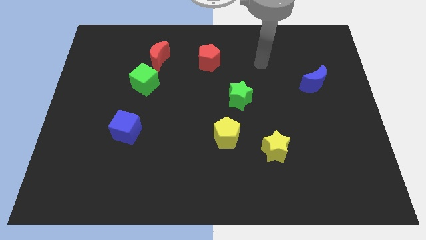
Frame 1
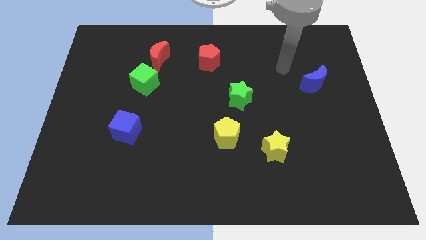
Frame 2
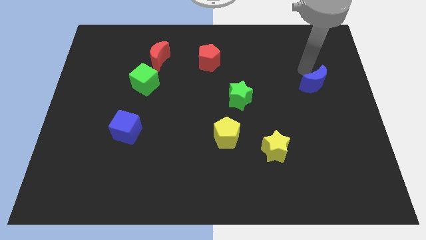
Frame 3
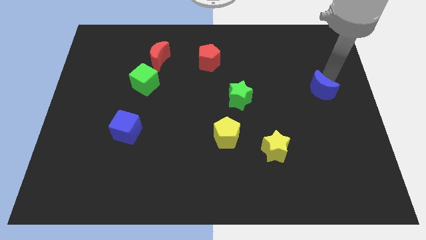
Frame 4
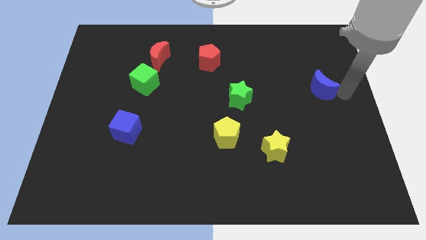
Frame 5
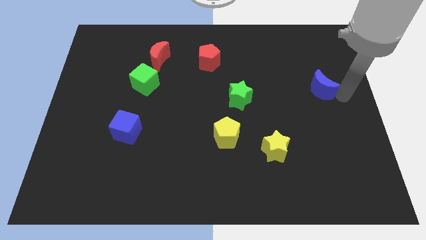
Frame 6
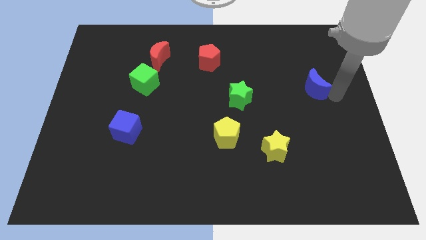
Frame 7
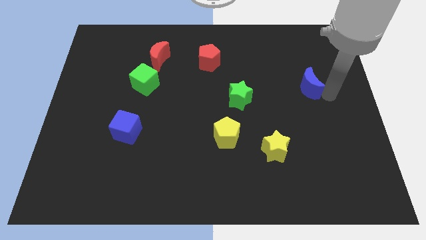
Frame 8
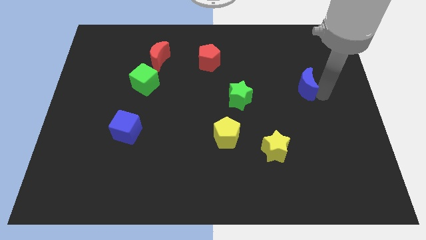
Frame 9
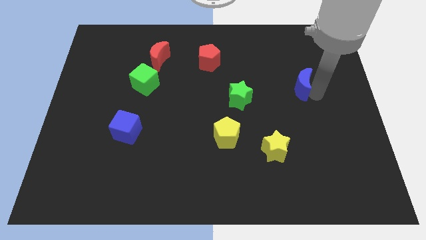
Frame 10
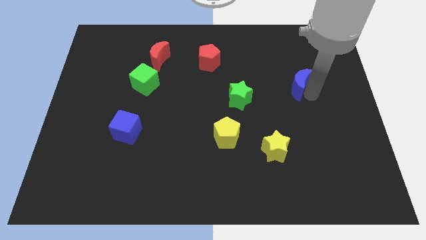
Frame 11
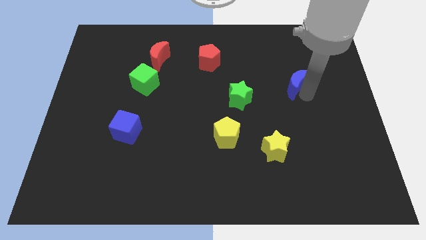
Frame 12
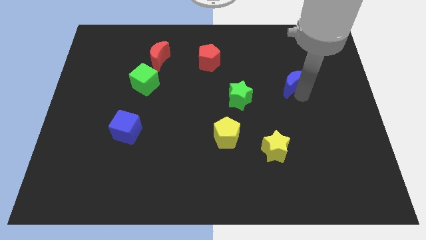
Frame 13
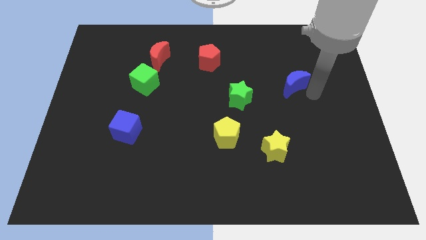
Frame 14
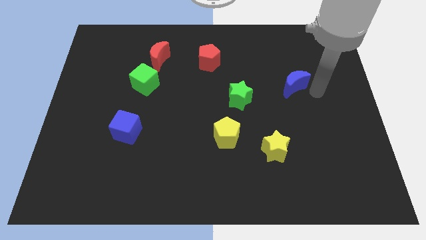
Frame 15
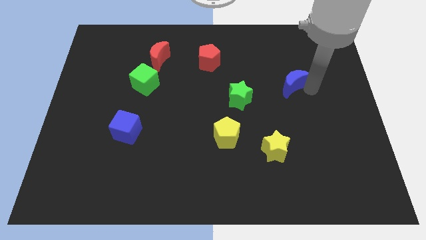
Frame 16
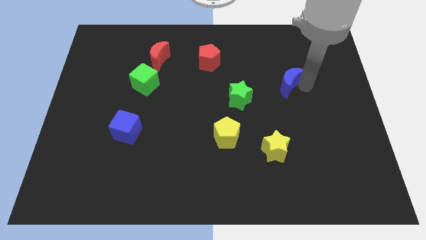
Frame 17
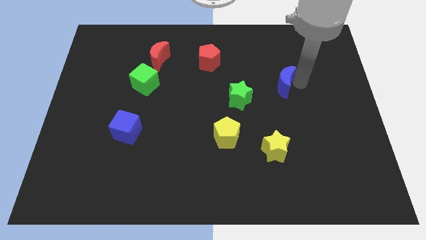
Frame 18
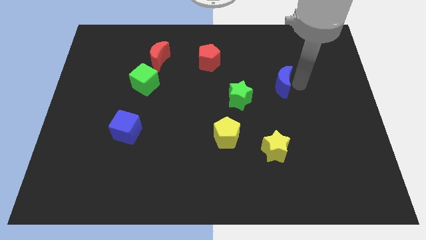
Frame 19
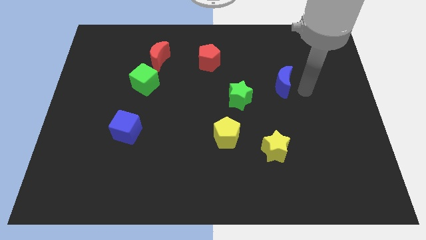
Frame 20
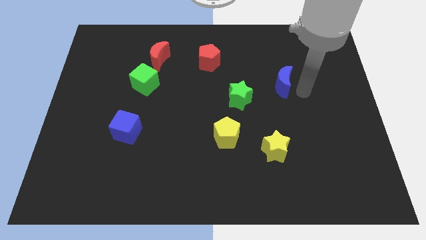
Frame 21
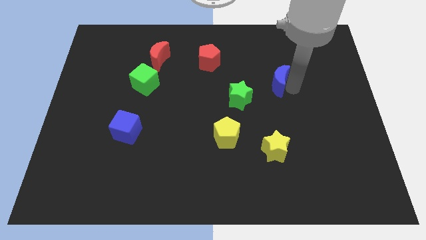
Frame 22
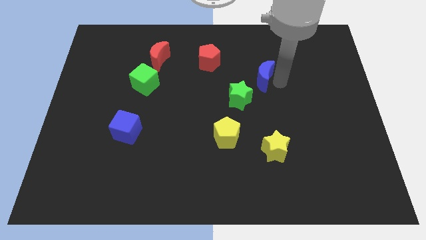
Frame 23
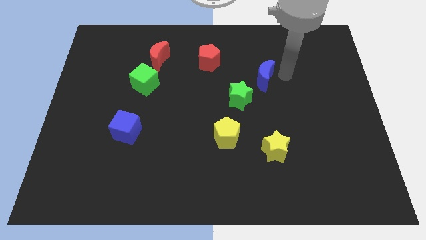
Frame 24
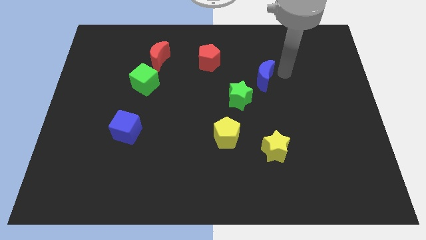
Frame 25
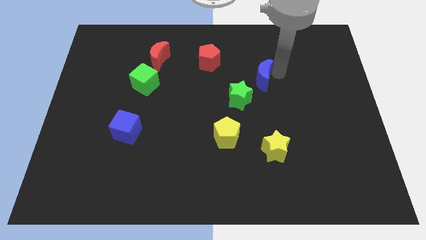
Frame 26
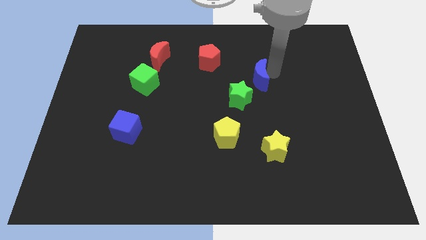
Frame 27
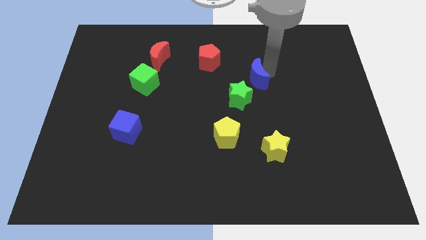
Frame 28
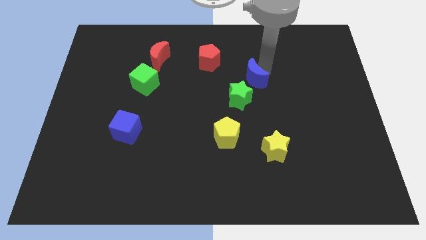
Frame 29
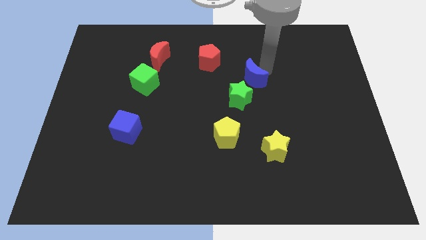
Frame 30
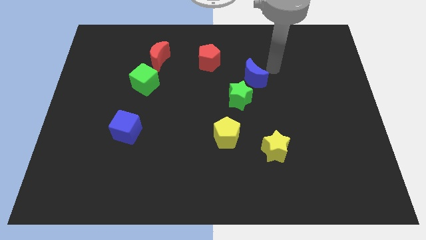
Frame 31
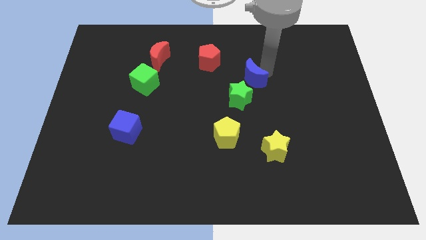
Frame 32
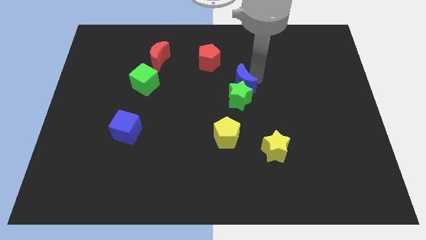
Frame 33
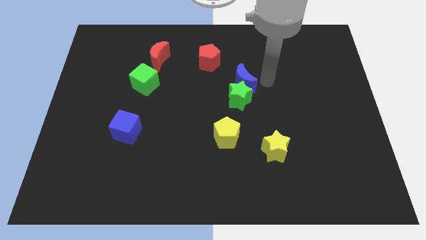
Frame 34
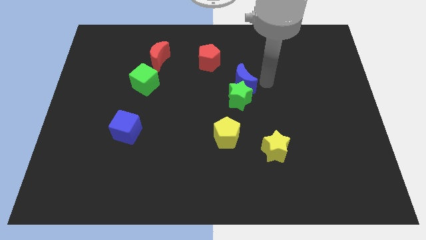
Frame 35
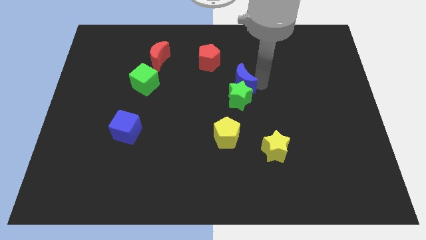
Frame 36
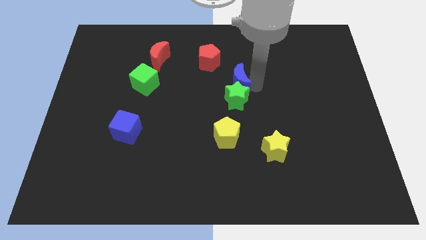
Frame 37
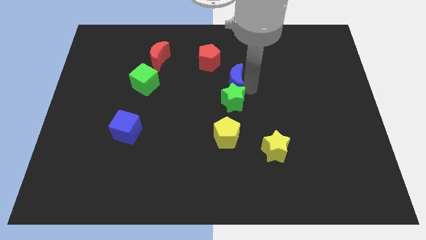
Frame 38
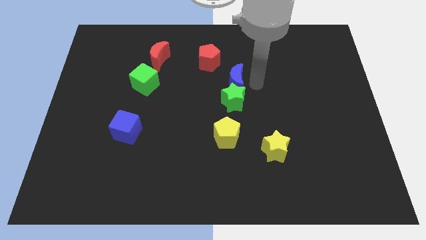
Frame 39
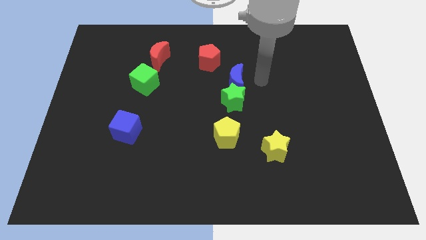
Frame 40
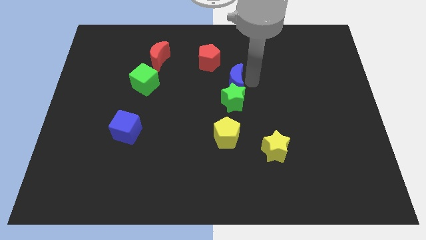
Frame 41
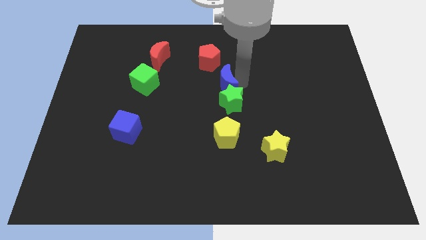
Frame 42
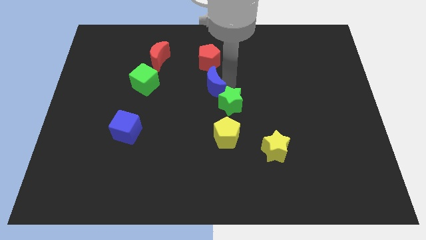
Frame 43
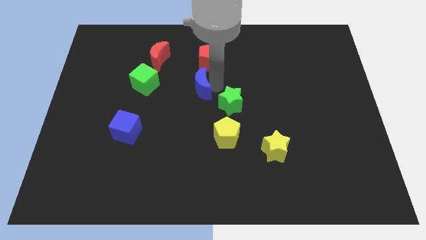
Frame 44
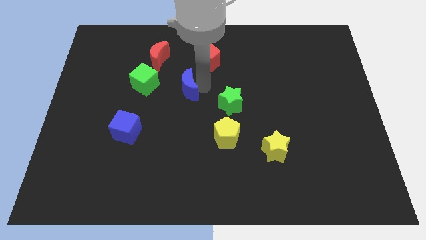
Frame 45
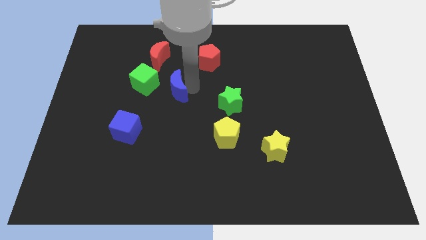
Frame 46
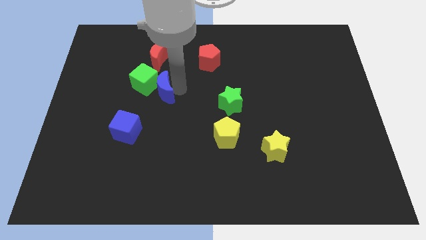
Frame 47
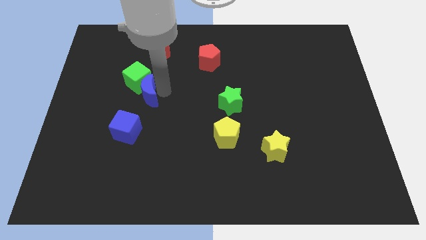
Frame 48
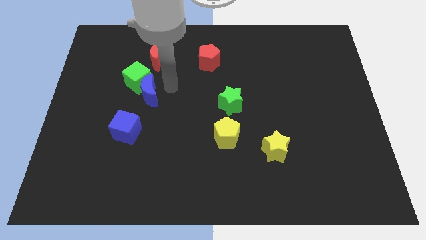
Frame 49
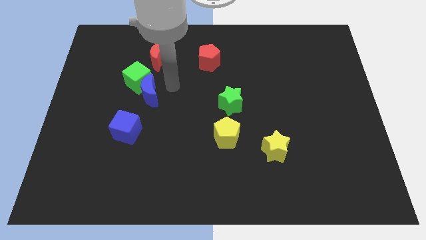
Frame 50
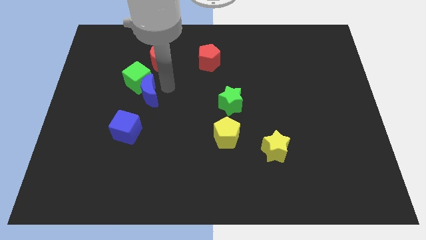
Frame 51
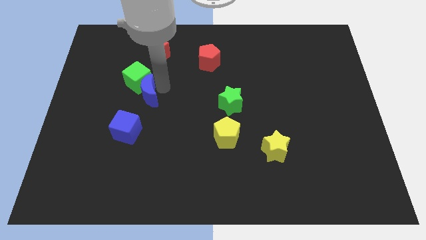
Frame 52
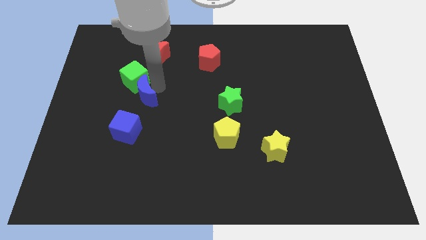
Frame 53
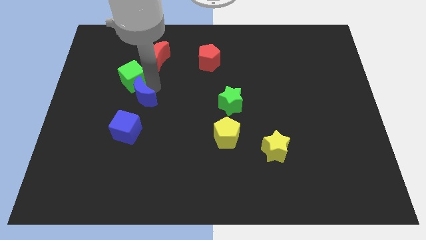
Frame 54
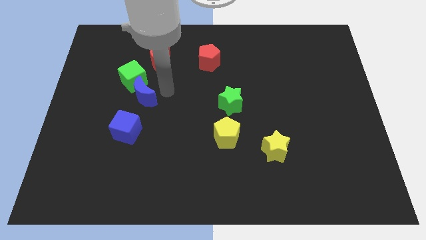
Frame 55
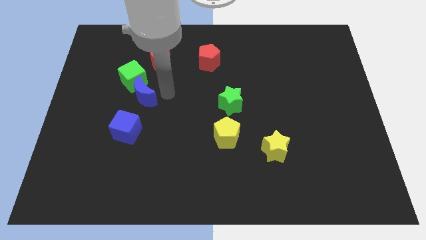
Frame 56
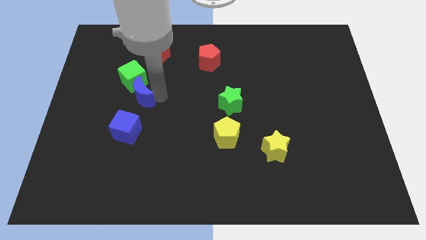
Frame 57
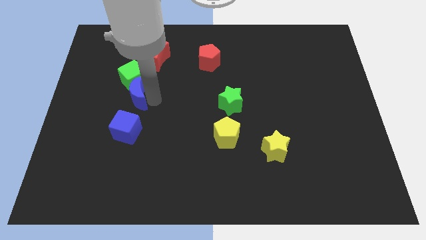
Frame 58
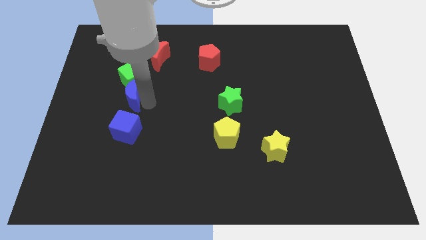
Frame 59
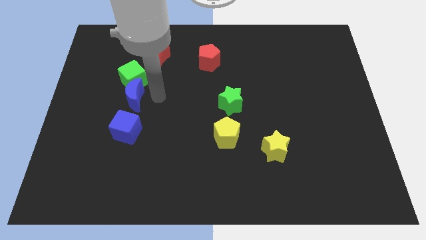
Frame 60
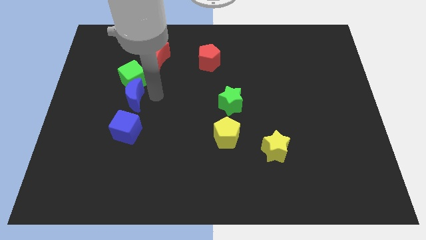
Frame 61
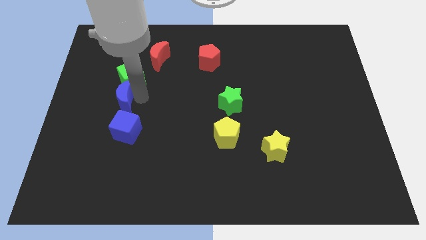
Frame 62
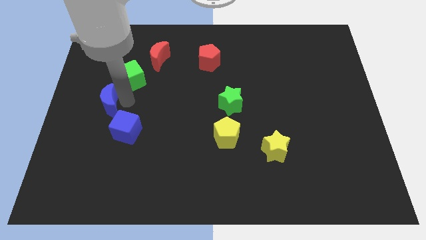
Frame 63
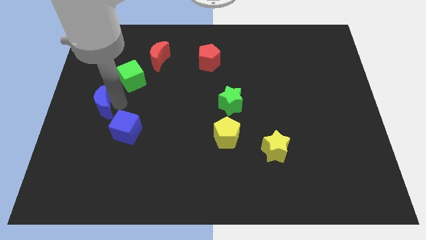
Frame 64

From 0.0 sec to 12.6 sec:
slide the blue moon to the center left
